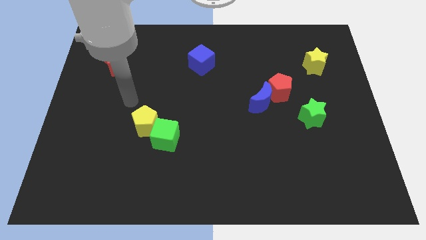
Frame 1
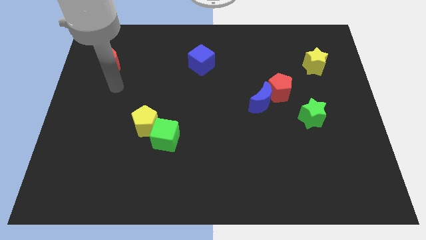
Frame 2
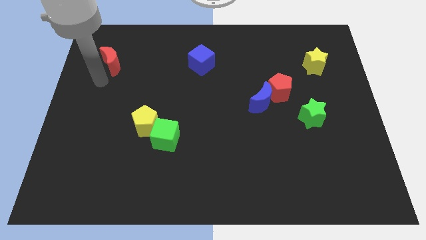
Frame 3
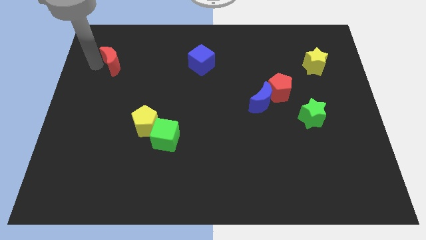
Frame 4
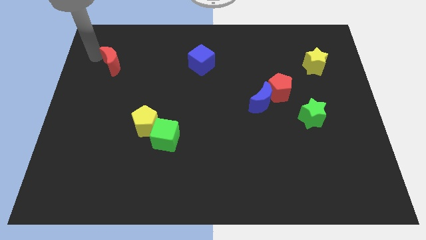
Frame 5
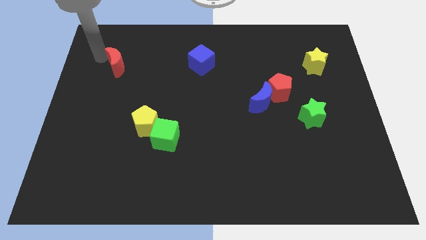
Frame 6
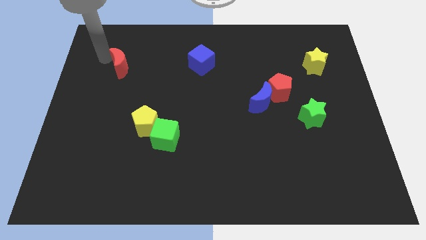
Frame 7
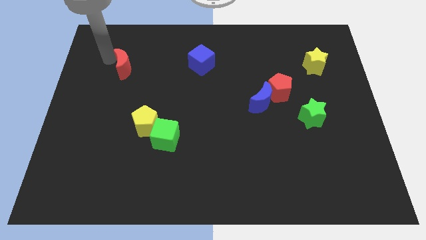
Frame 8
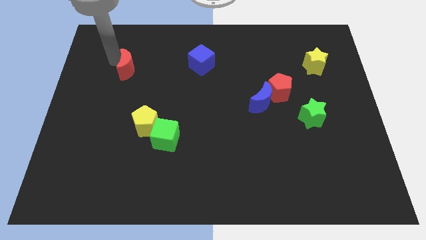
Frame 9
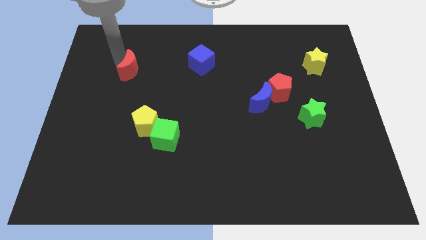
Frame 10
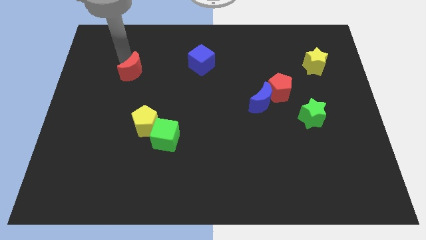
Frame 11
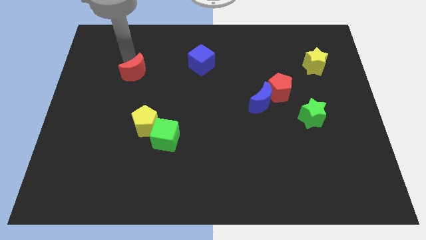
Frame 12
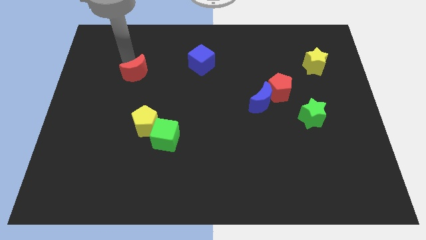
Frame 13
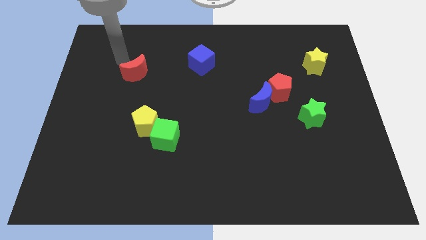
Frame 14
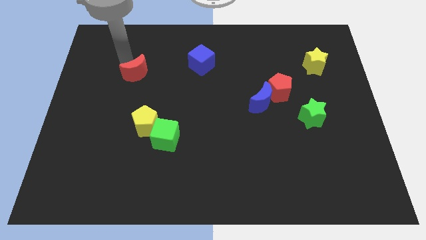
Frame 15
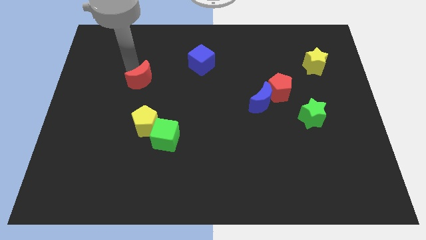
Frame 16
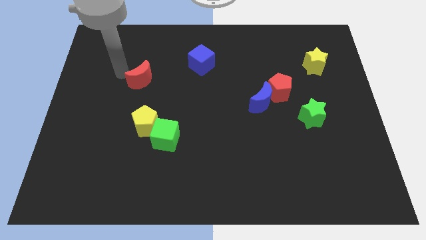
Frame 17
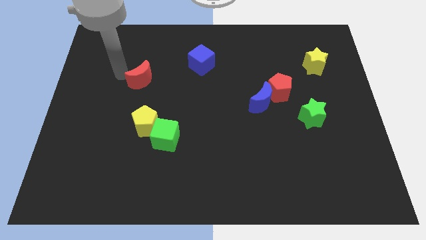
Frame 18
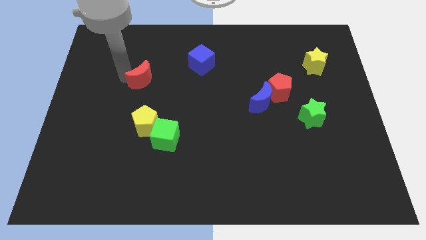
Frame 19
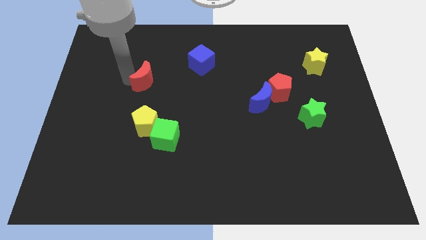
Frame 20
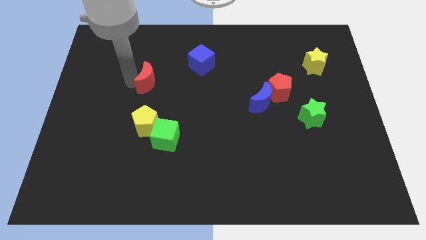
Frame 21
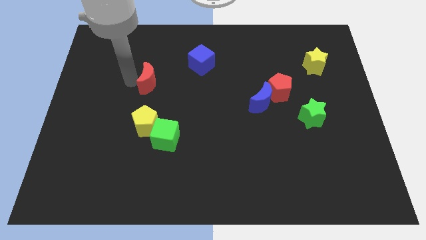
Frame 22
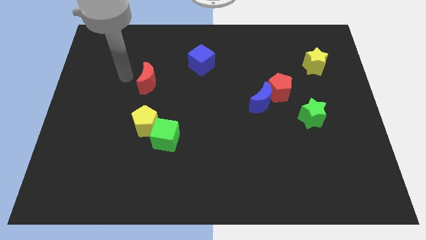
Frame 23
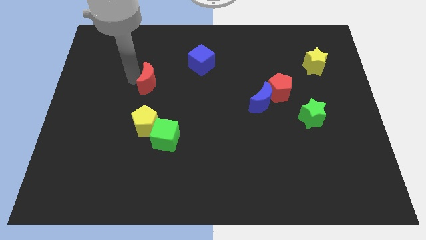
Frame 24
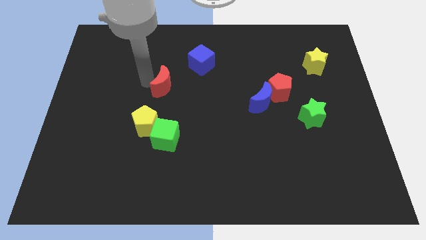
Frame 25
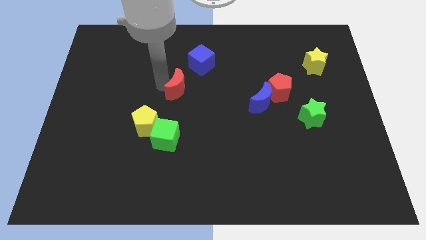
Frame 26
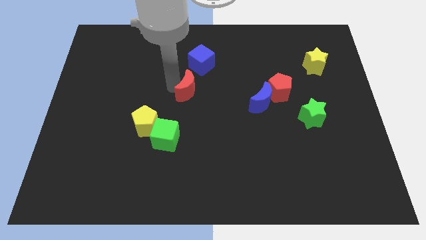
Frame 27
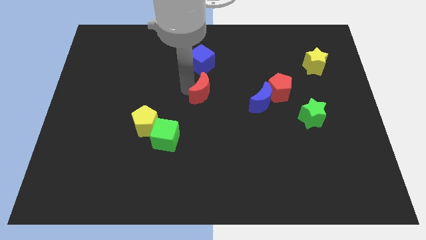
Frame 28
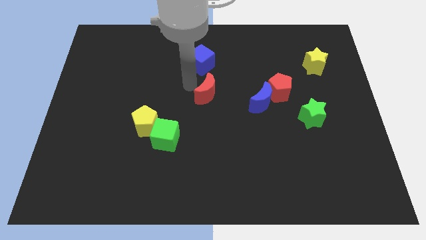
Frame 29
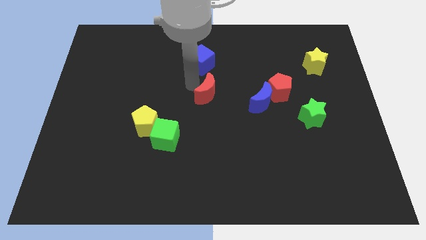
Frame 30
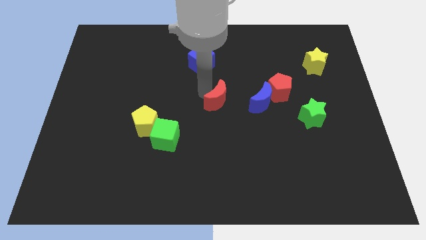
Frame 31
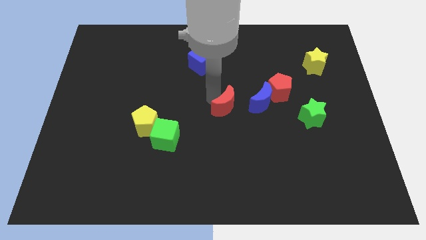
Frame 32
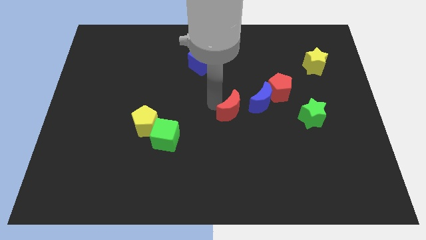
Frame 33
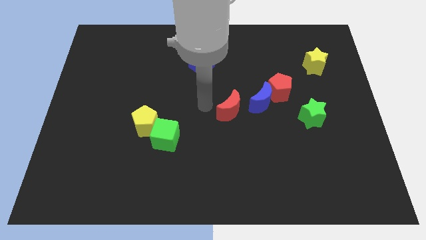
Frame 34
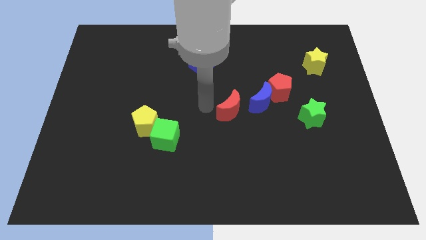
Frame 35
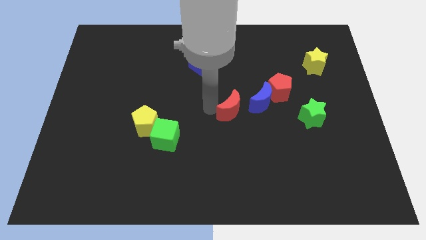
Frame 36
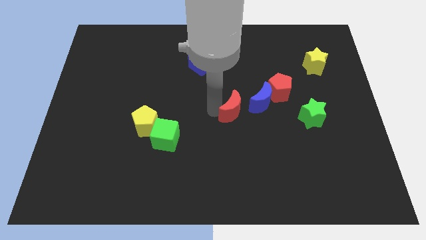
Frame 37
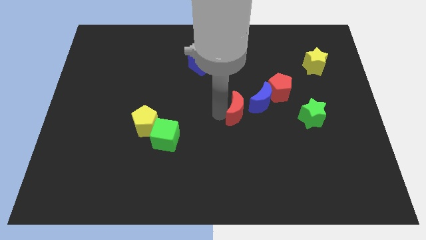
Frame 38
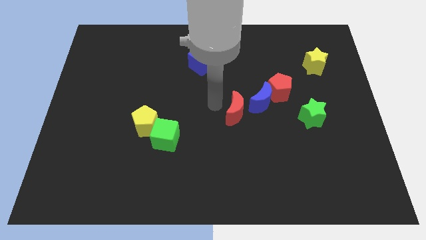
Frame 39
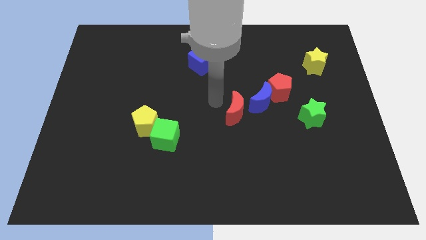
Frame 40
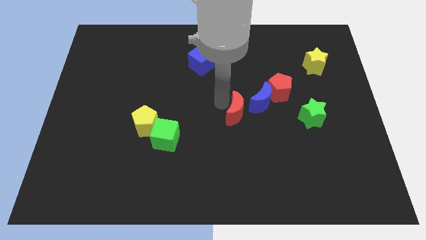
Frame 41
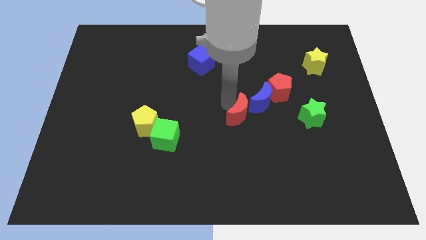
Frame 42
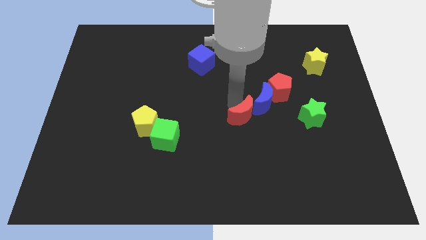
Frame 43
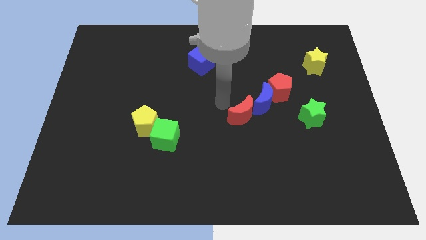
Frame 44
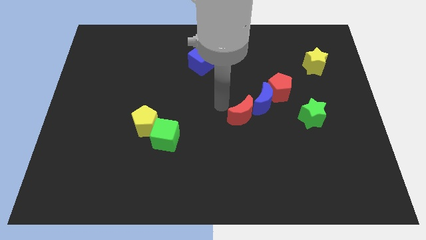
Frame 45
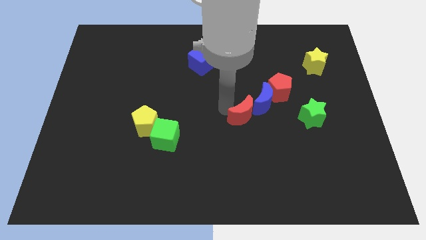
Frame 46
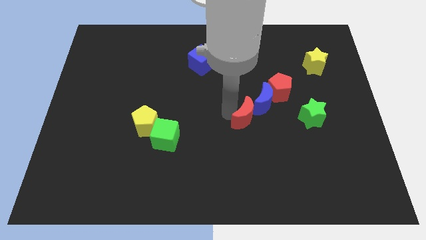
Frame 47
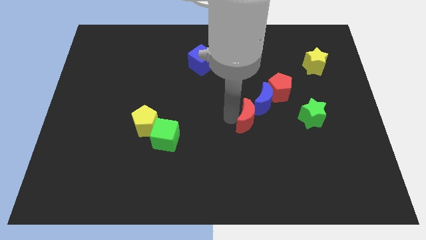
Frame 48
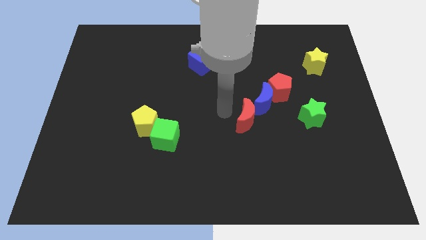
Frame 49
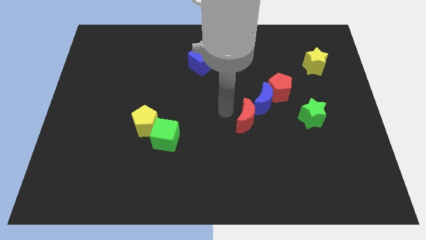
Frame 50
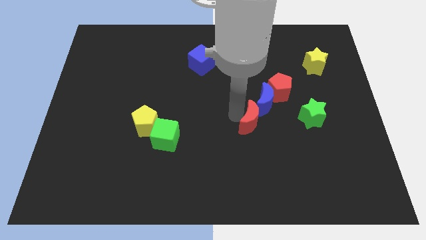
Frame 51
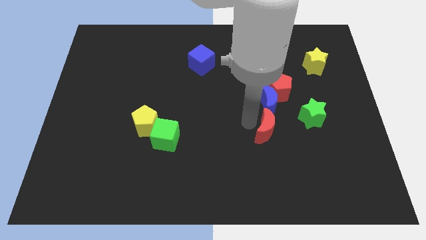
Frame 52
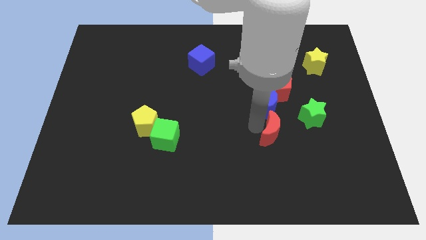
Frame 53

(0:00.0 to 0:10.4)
move the red moon diagonally down and to the left of the green star

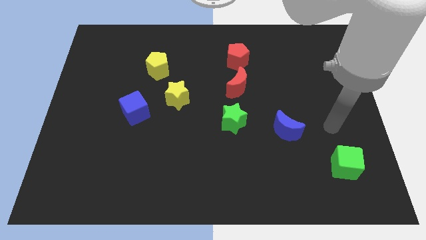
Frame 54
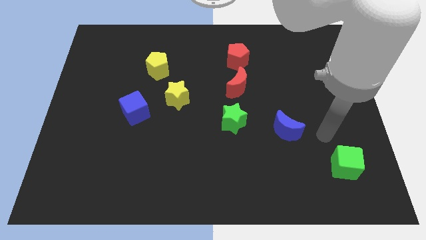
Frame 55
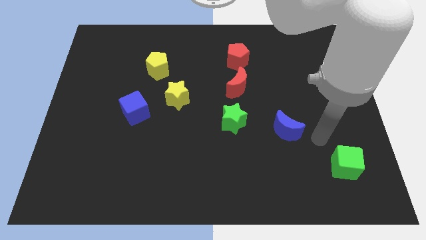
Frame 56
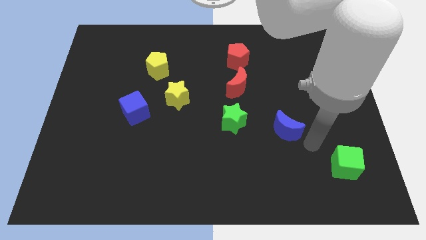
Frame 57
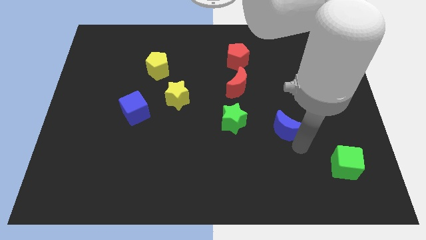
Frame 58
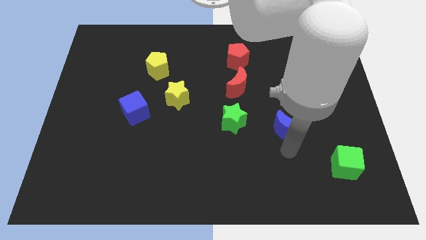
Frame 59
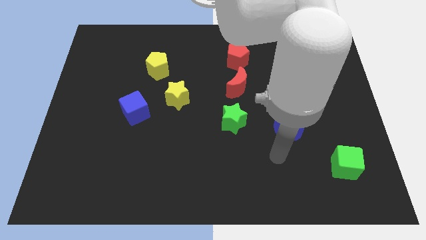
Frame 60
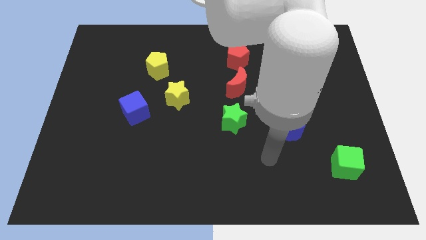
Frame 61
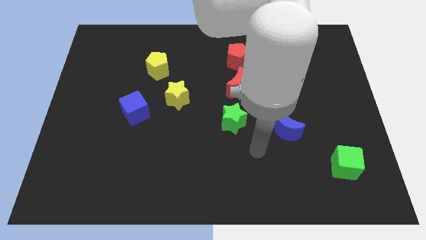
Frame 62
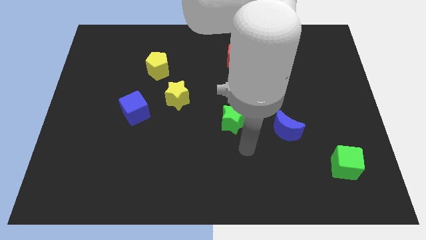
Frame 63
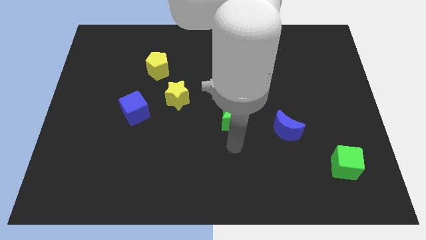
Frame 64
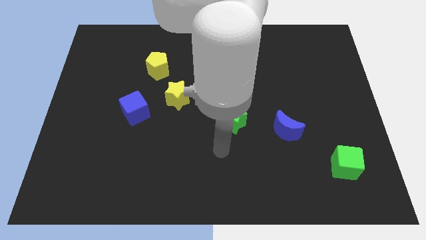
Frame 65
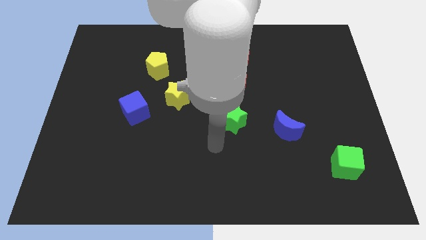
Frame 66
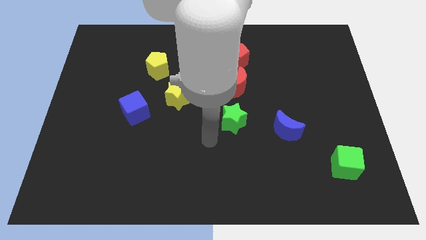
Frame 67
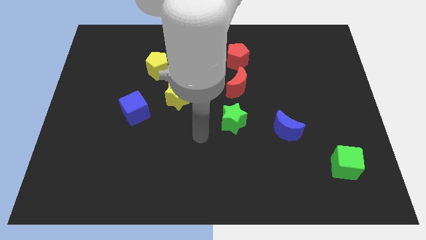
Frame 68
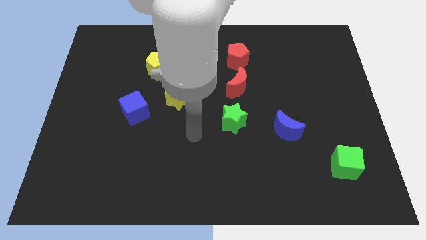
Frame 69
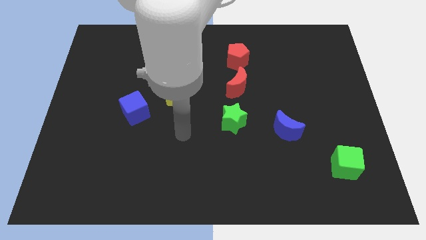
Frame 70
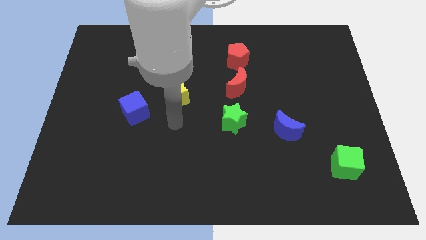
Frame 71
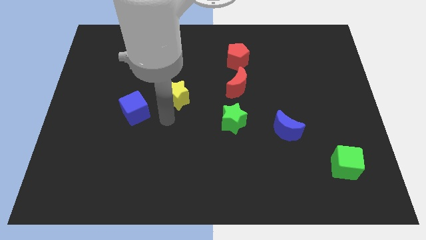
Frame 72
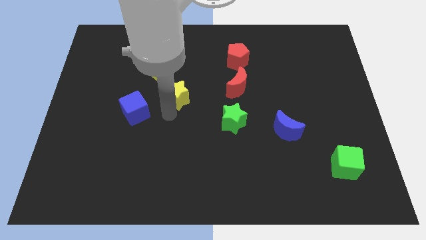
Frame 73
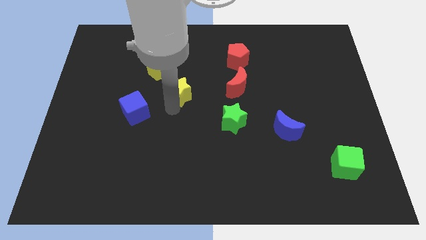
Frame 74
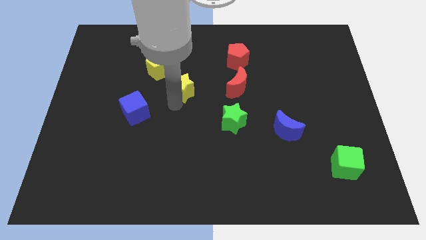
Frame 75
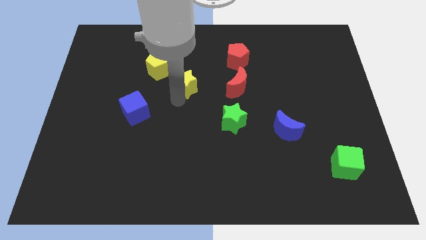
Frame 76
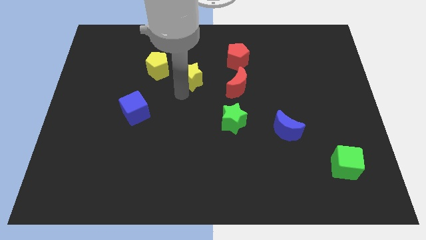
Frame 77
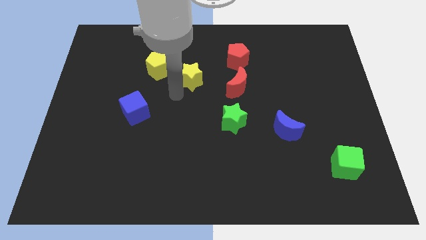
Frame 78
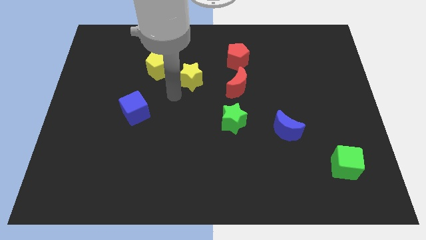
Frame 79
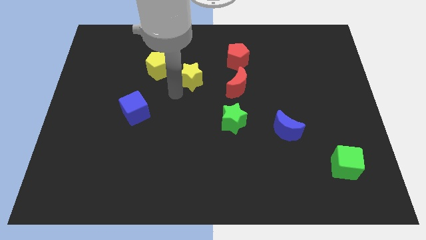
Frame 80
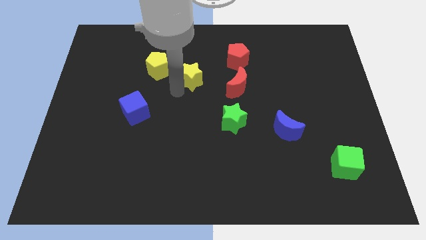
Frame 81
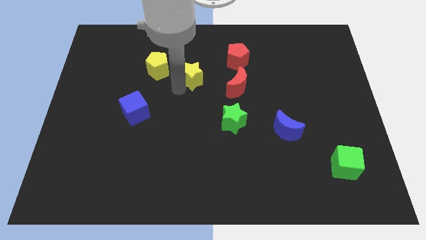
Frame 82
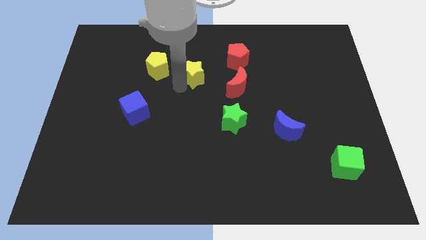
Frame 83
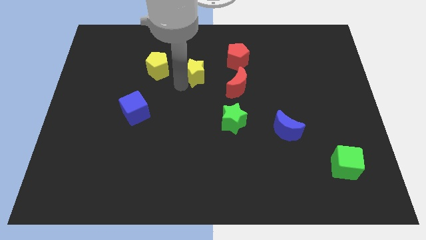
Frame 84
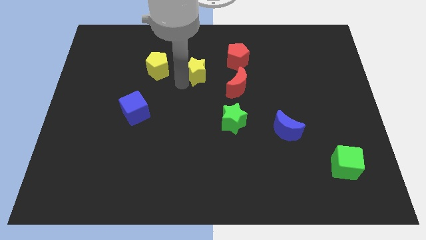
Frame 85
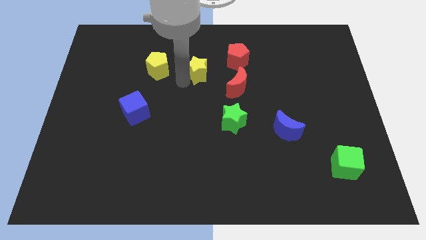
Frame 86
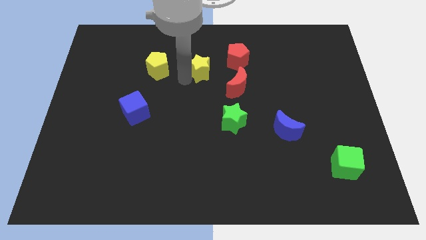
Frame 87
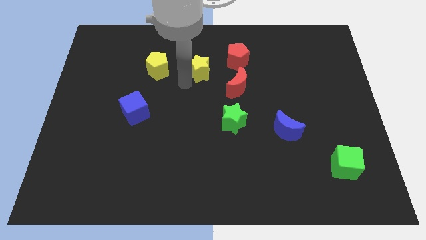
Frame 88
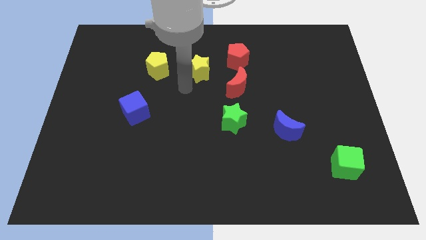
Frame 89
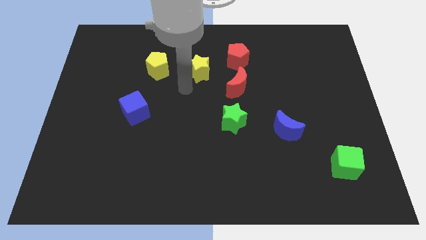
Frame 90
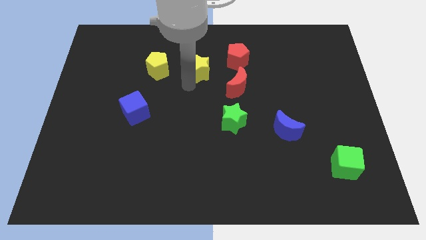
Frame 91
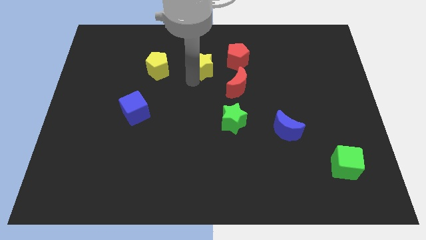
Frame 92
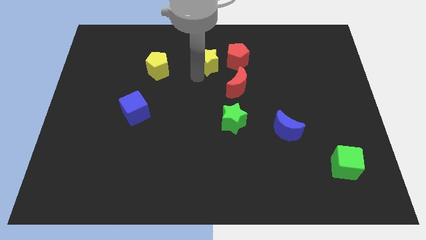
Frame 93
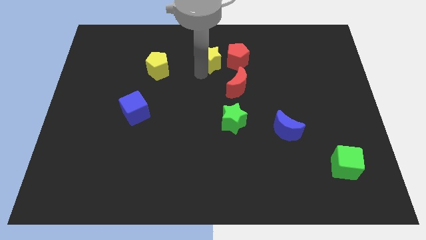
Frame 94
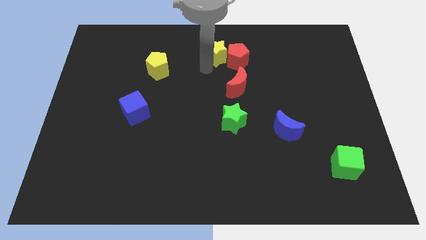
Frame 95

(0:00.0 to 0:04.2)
move the yellow star above the red moon
